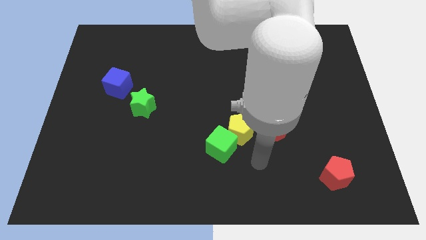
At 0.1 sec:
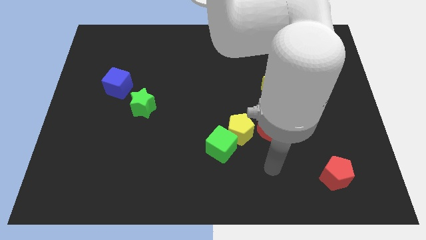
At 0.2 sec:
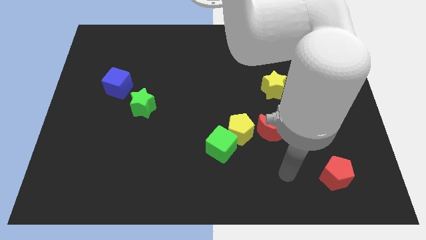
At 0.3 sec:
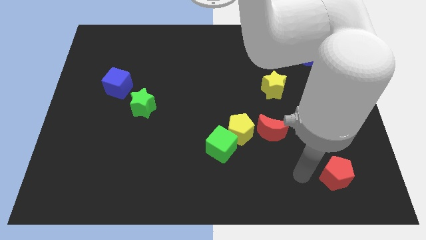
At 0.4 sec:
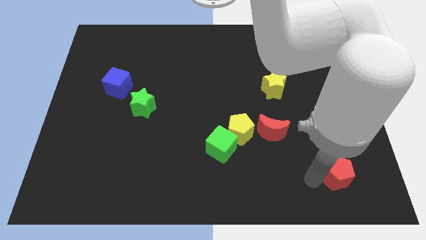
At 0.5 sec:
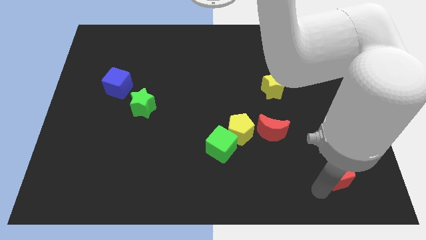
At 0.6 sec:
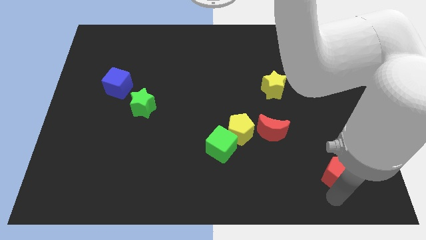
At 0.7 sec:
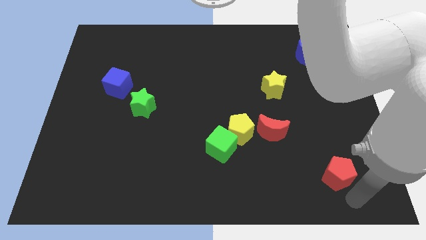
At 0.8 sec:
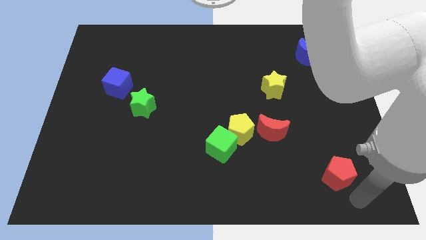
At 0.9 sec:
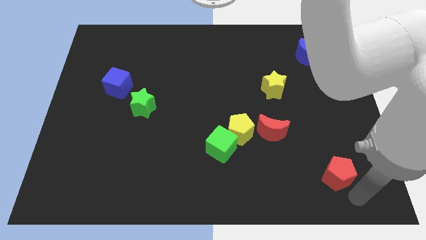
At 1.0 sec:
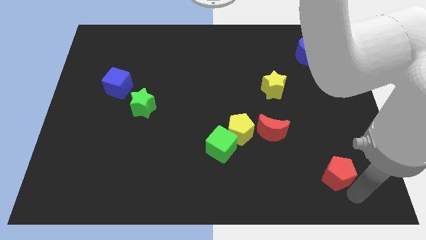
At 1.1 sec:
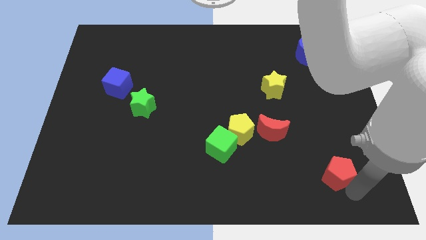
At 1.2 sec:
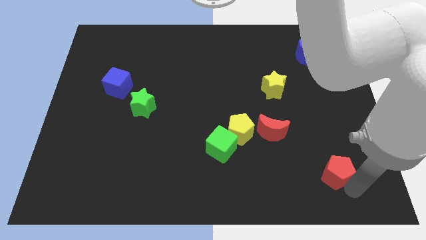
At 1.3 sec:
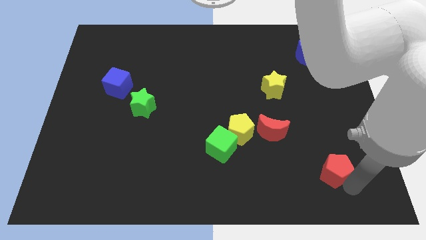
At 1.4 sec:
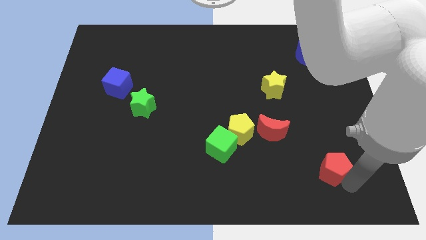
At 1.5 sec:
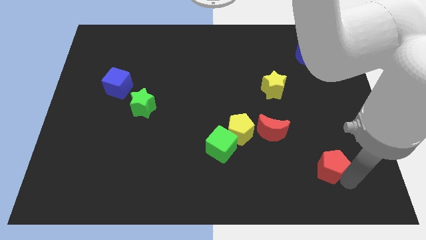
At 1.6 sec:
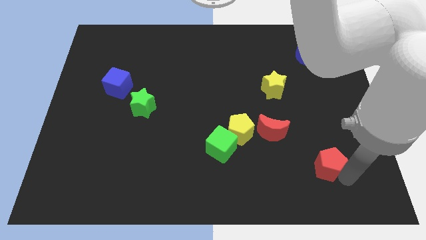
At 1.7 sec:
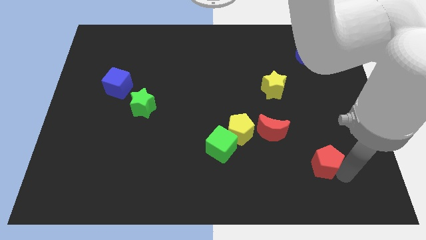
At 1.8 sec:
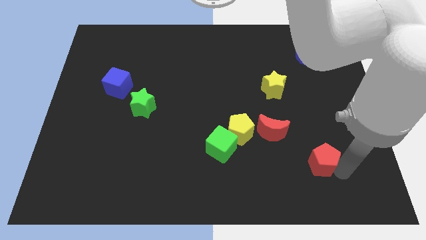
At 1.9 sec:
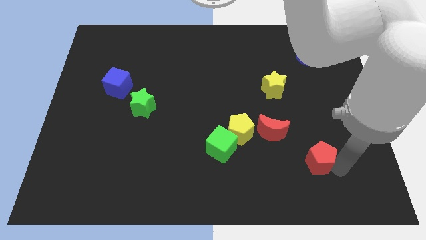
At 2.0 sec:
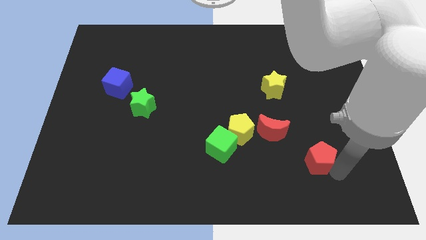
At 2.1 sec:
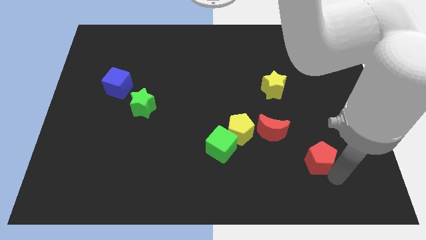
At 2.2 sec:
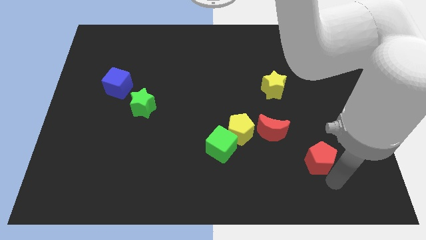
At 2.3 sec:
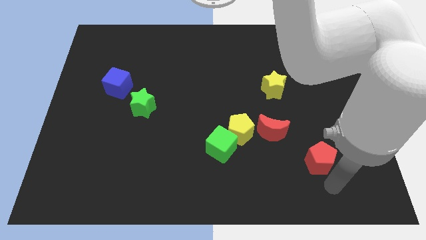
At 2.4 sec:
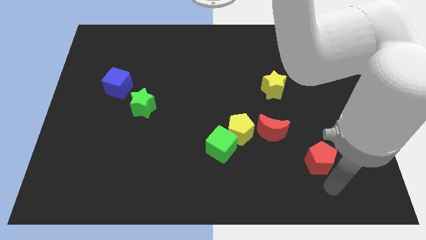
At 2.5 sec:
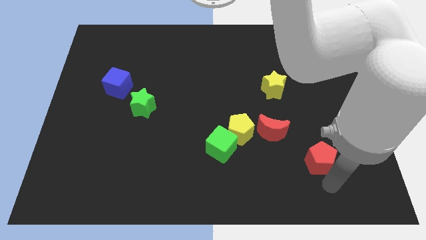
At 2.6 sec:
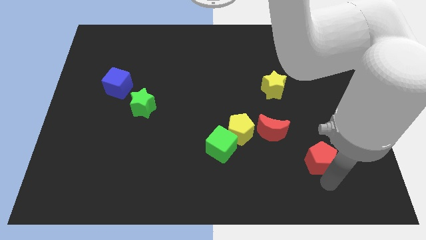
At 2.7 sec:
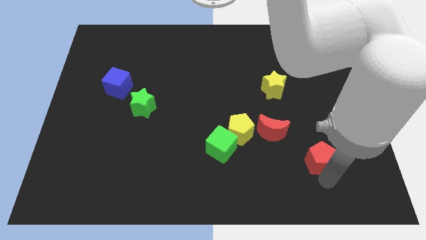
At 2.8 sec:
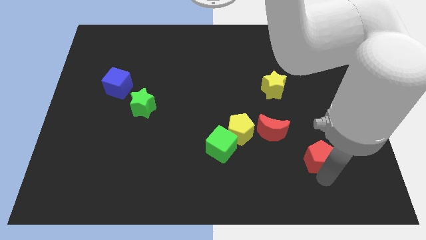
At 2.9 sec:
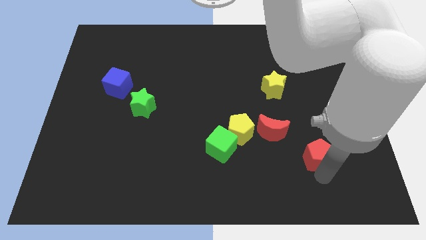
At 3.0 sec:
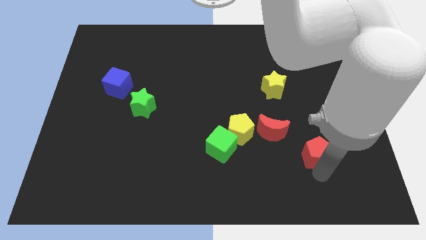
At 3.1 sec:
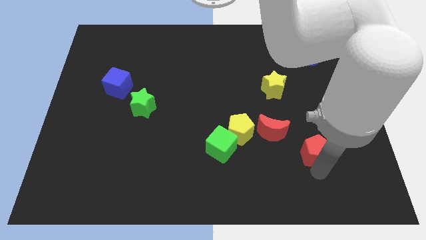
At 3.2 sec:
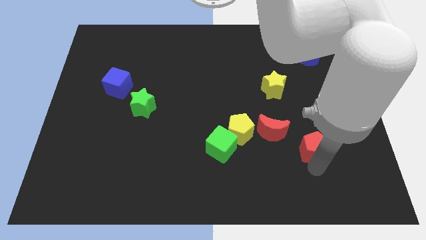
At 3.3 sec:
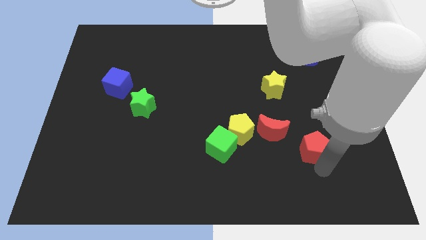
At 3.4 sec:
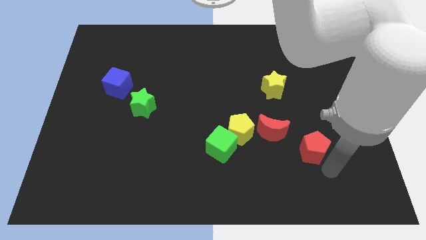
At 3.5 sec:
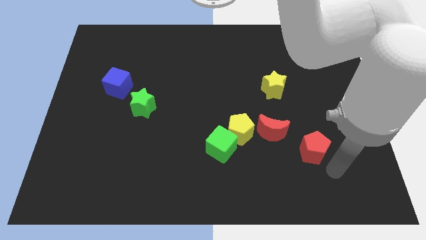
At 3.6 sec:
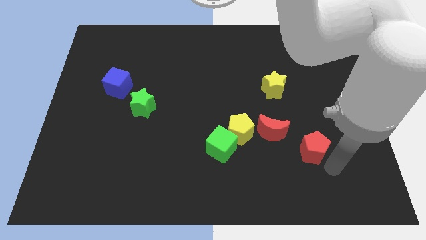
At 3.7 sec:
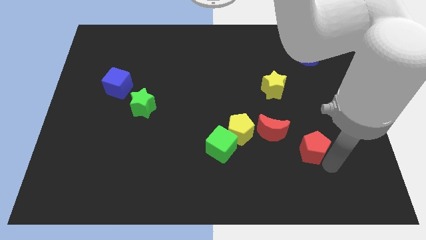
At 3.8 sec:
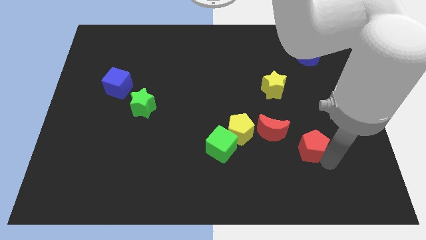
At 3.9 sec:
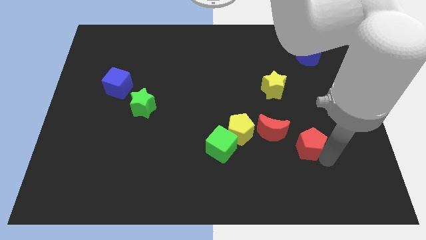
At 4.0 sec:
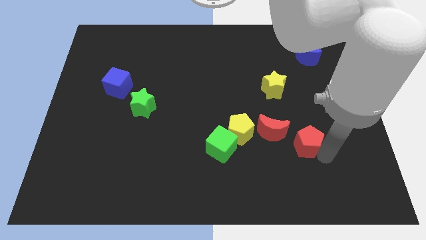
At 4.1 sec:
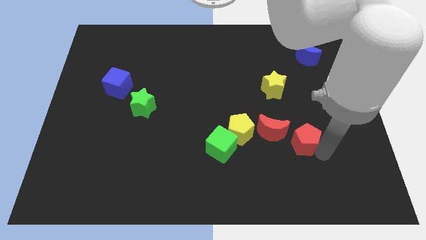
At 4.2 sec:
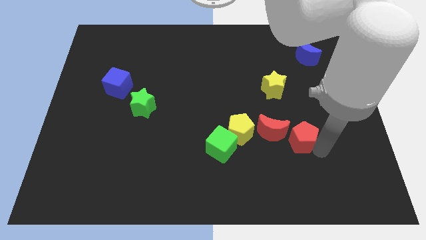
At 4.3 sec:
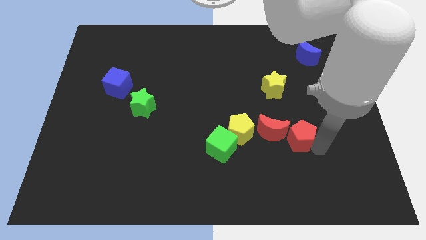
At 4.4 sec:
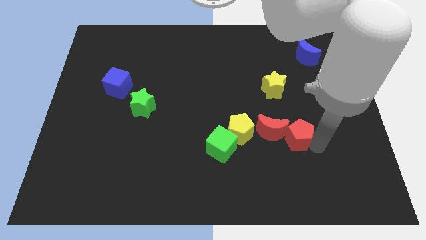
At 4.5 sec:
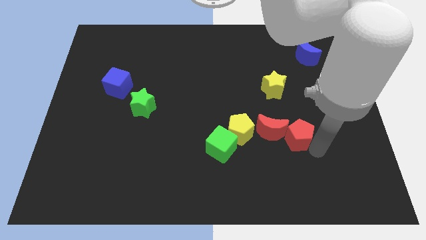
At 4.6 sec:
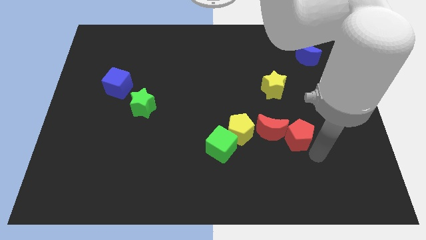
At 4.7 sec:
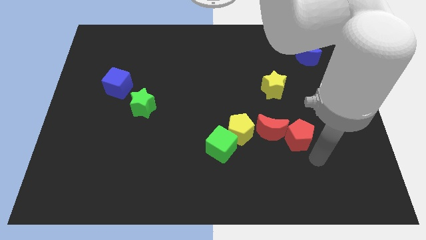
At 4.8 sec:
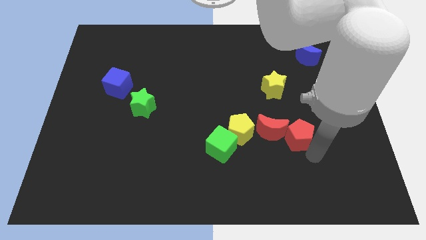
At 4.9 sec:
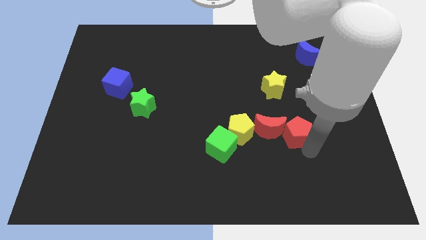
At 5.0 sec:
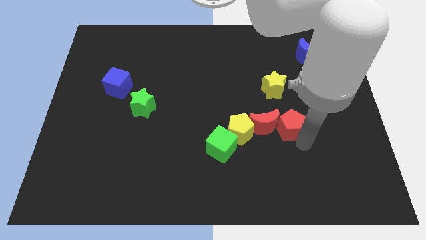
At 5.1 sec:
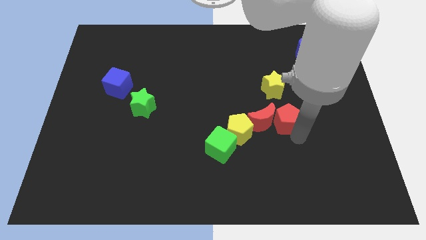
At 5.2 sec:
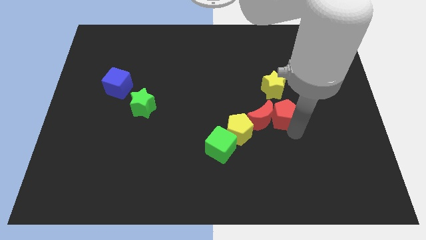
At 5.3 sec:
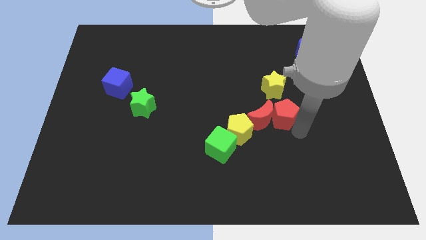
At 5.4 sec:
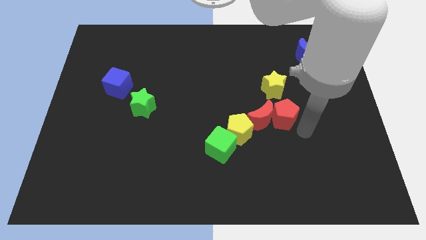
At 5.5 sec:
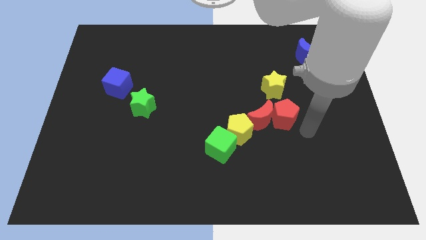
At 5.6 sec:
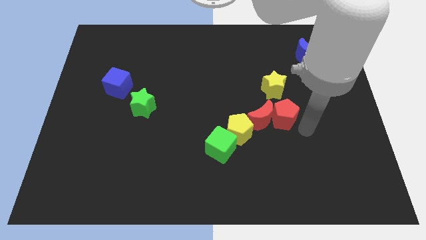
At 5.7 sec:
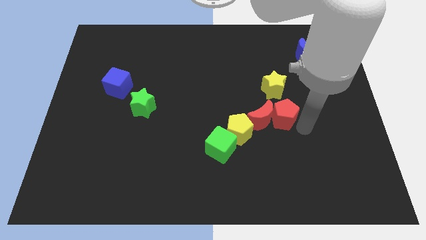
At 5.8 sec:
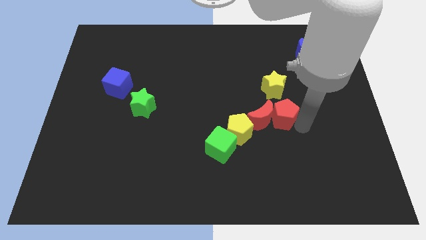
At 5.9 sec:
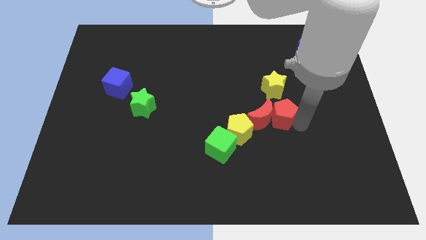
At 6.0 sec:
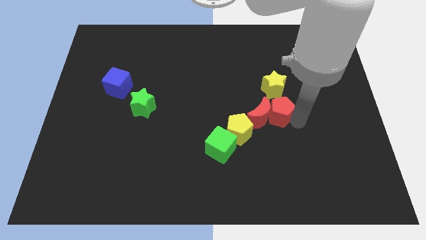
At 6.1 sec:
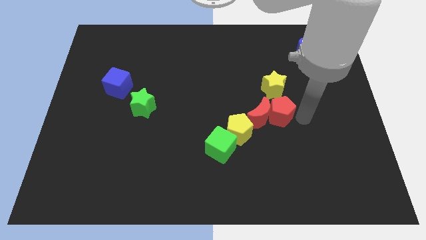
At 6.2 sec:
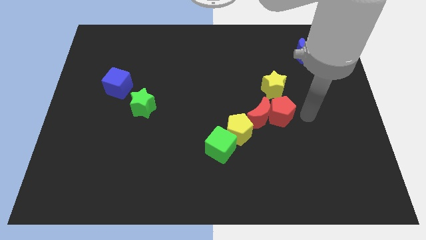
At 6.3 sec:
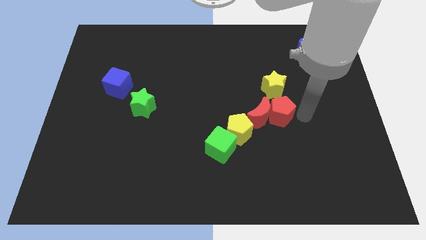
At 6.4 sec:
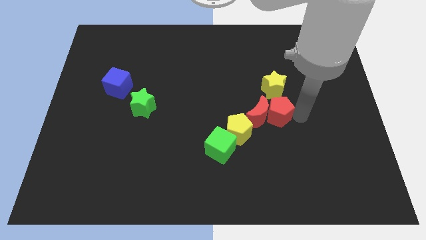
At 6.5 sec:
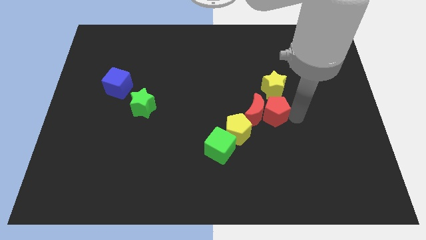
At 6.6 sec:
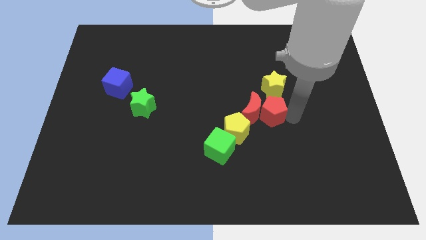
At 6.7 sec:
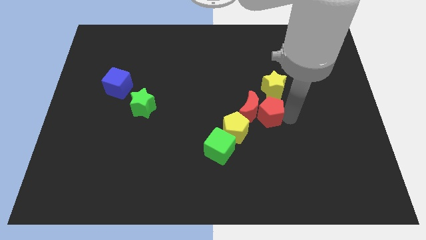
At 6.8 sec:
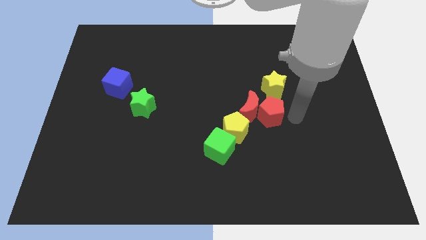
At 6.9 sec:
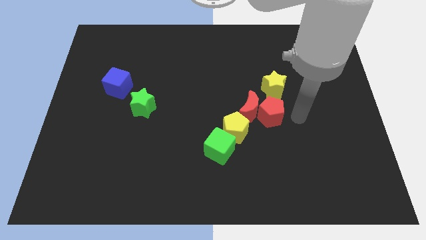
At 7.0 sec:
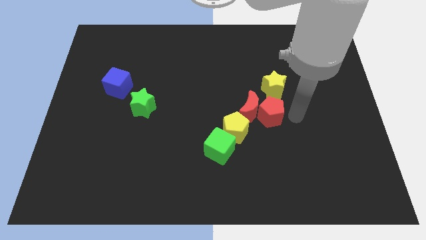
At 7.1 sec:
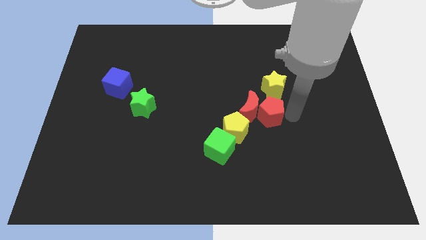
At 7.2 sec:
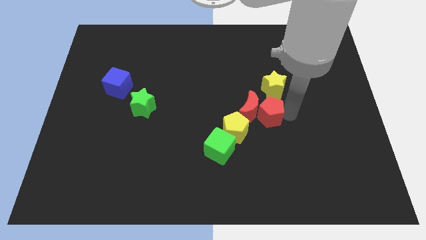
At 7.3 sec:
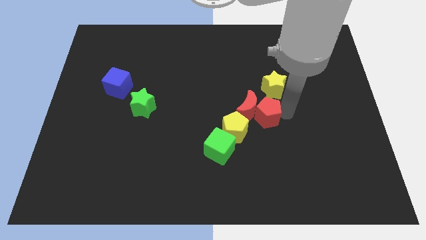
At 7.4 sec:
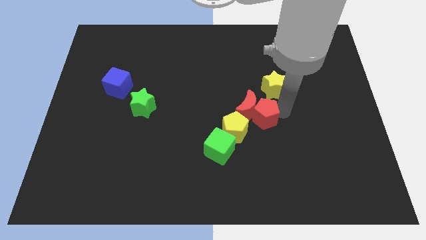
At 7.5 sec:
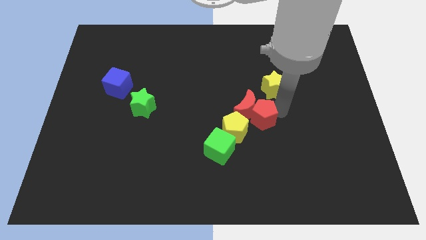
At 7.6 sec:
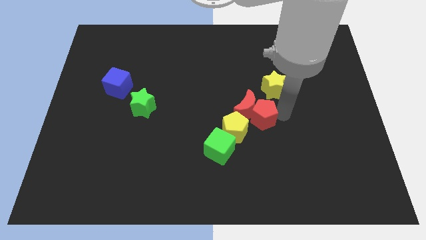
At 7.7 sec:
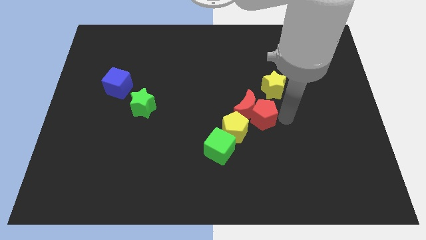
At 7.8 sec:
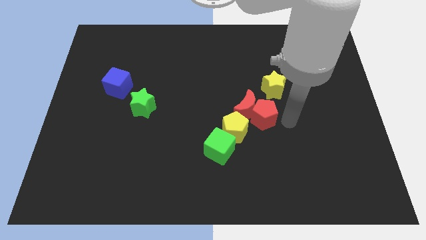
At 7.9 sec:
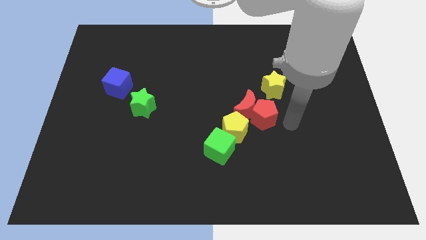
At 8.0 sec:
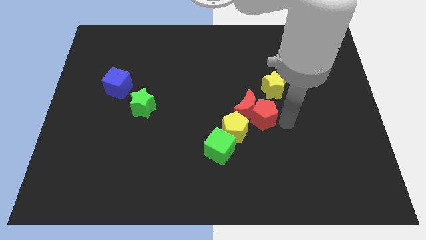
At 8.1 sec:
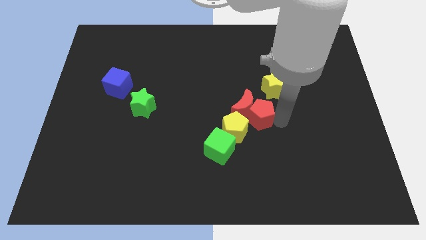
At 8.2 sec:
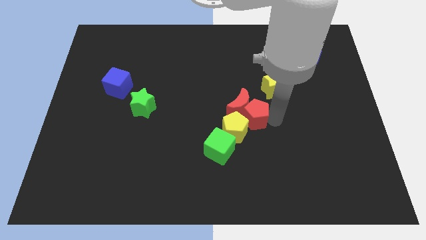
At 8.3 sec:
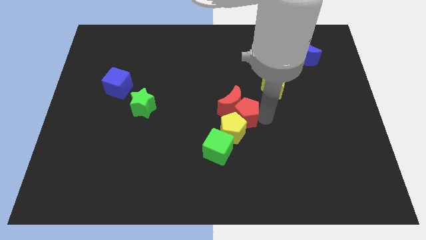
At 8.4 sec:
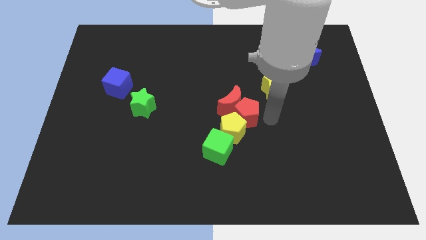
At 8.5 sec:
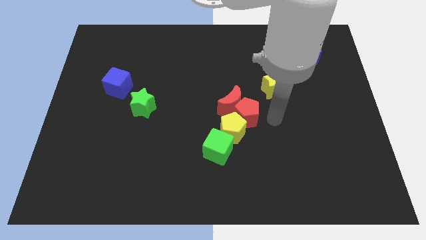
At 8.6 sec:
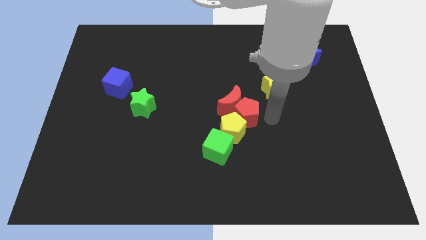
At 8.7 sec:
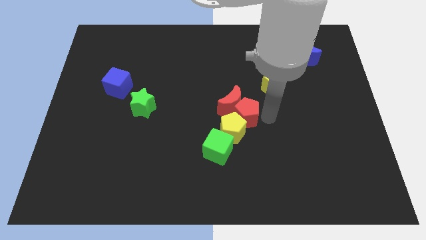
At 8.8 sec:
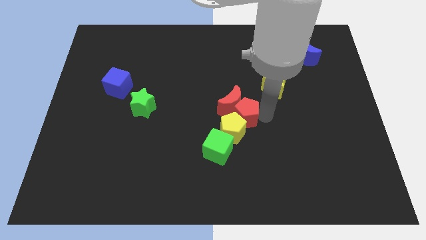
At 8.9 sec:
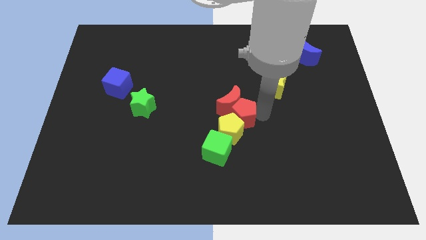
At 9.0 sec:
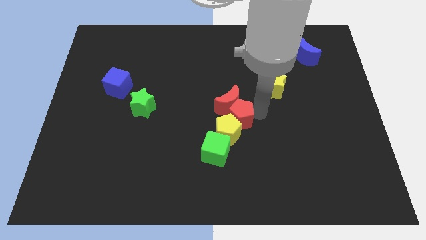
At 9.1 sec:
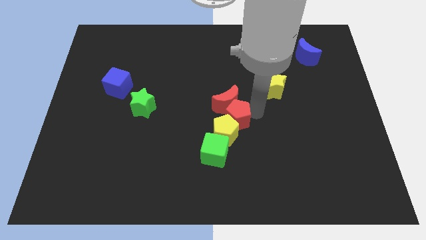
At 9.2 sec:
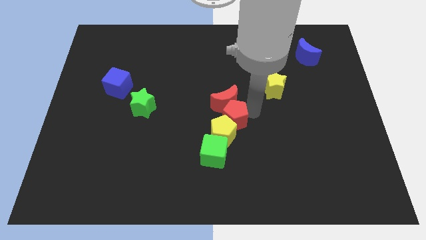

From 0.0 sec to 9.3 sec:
put the red pentagon to the top side of the green cube
